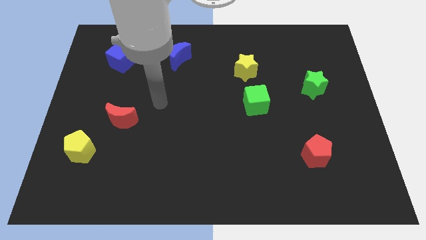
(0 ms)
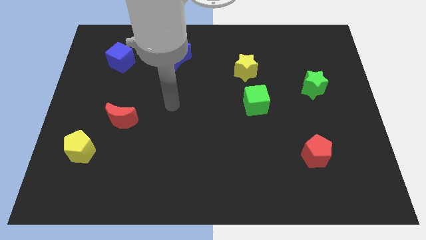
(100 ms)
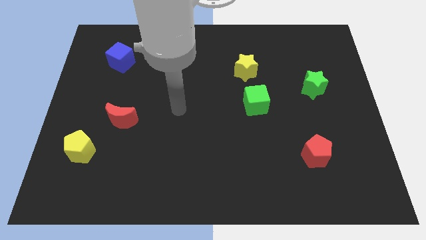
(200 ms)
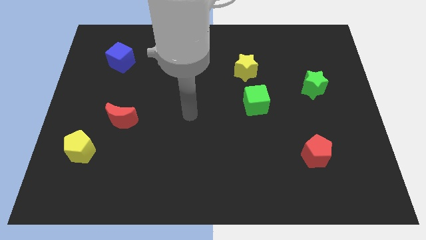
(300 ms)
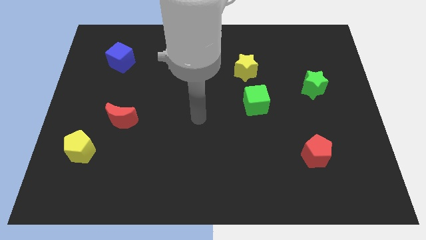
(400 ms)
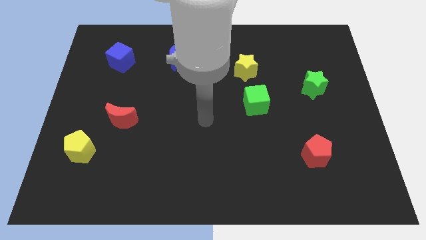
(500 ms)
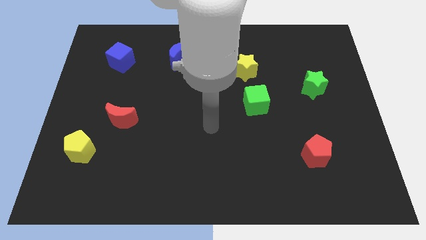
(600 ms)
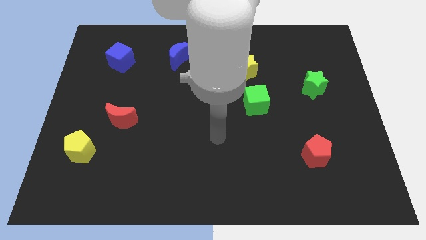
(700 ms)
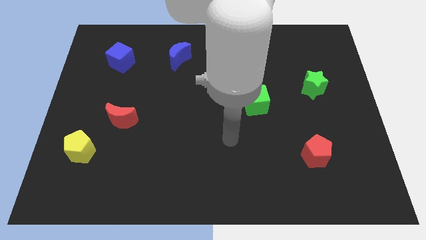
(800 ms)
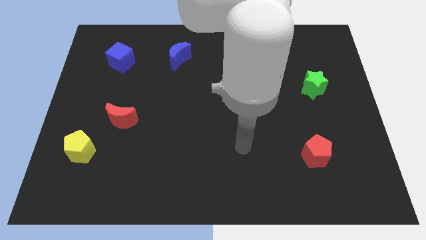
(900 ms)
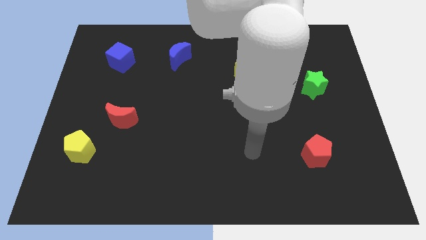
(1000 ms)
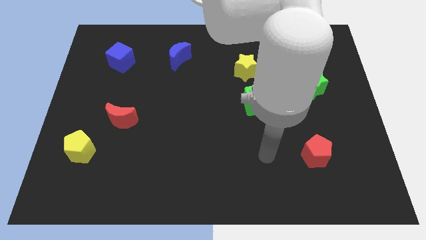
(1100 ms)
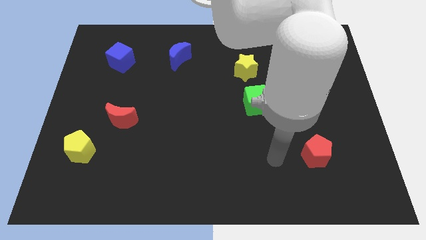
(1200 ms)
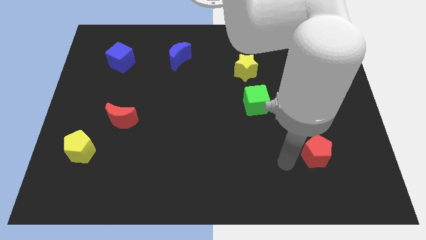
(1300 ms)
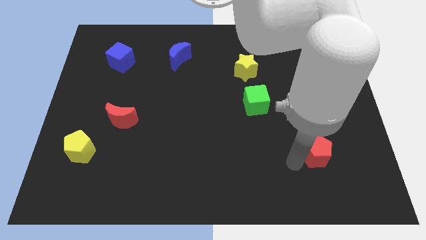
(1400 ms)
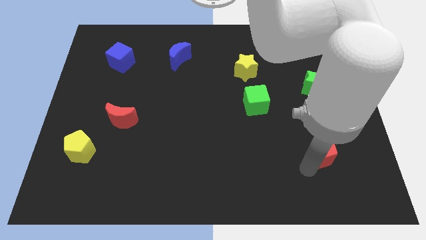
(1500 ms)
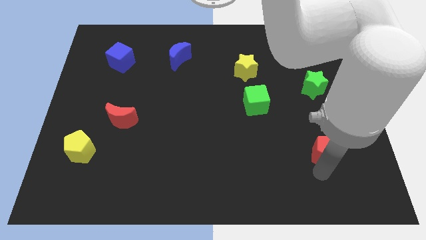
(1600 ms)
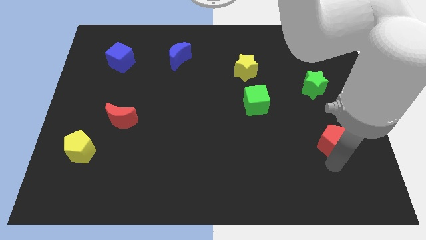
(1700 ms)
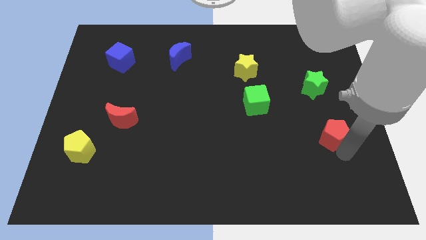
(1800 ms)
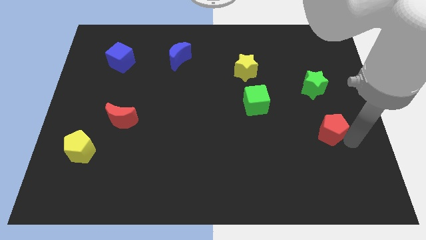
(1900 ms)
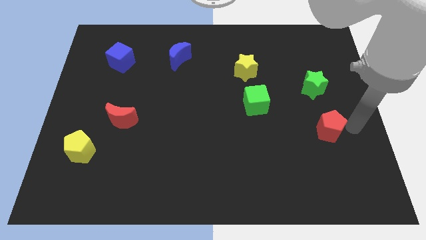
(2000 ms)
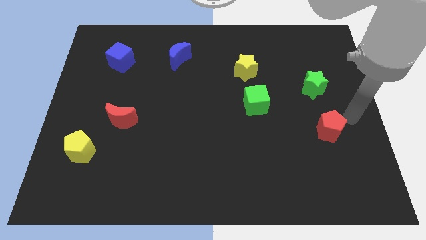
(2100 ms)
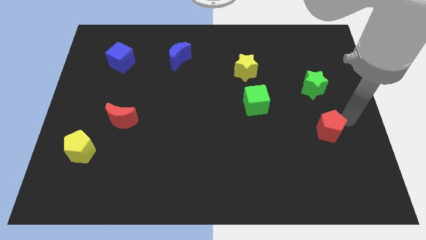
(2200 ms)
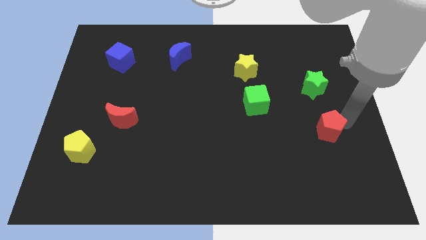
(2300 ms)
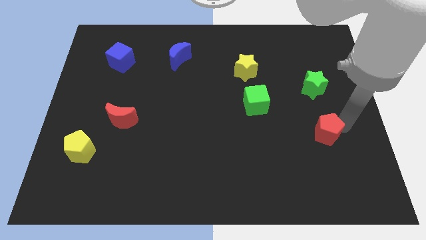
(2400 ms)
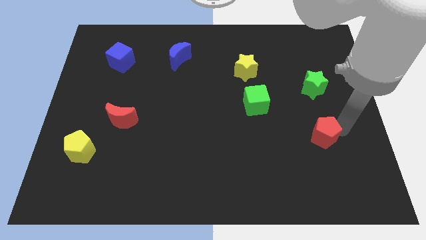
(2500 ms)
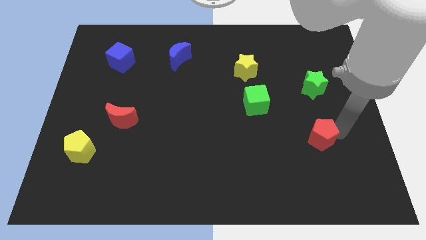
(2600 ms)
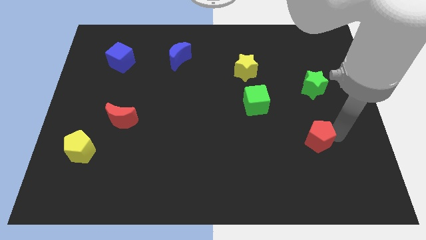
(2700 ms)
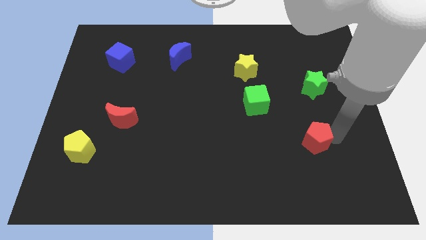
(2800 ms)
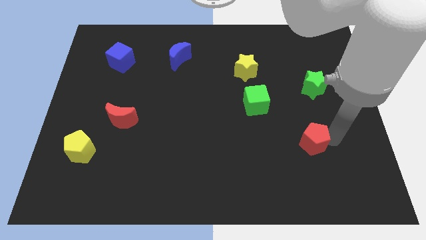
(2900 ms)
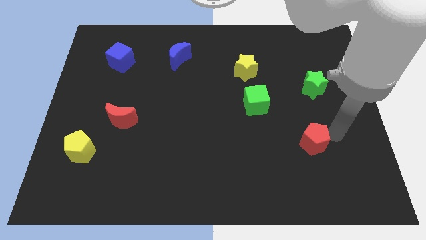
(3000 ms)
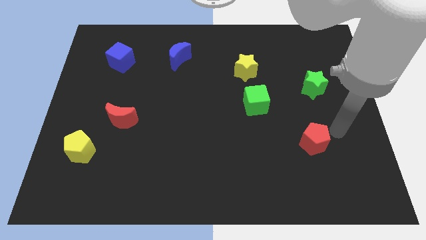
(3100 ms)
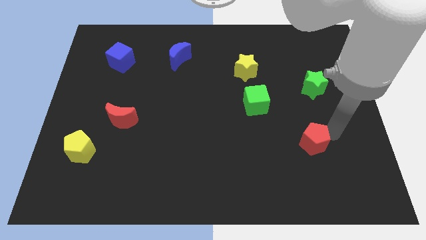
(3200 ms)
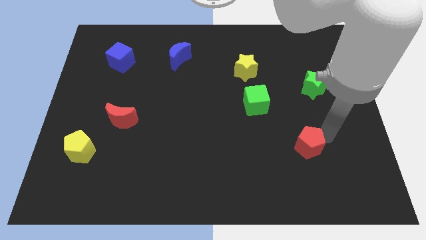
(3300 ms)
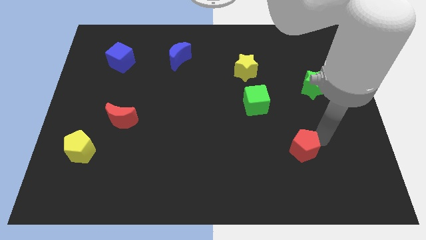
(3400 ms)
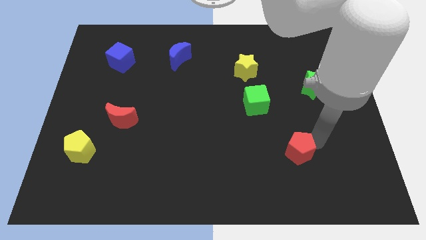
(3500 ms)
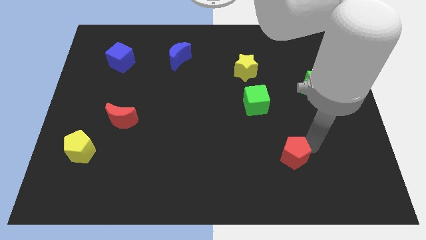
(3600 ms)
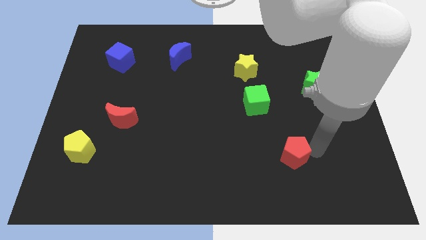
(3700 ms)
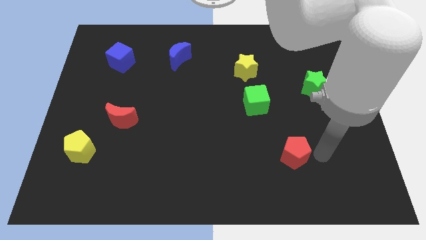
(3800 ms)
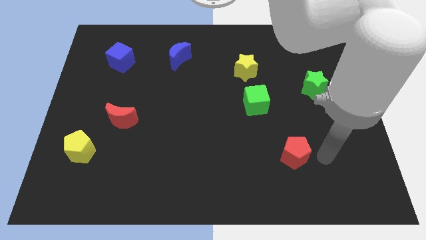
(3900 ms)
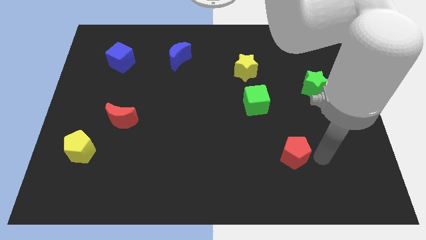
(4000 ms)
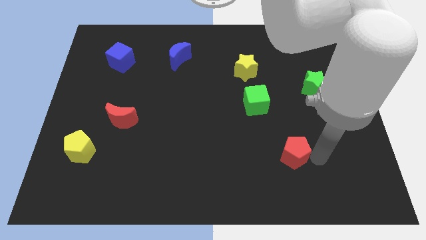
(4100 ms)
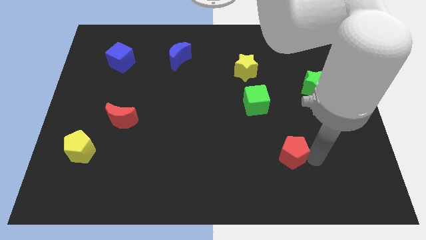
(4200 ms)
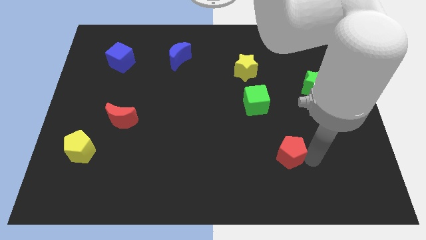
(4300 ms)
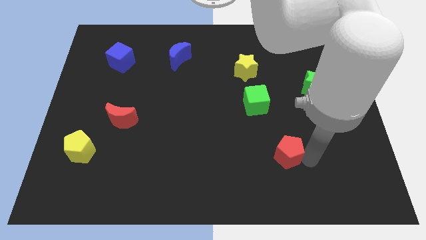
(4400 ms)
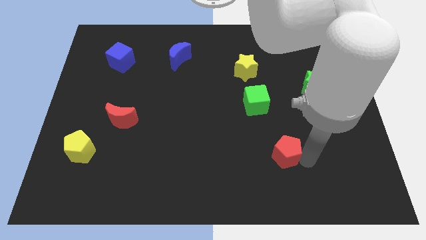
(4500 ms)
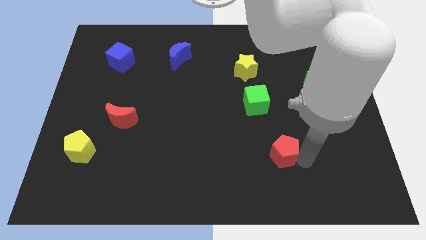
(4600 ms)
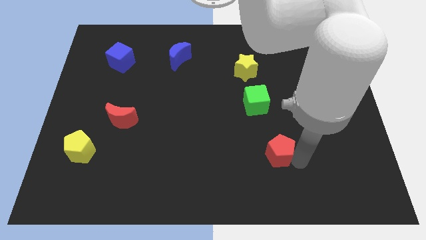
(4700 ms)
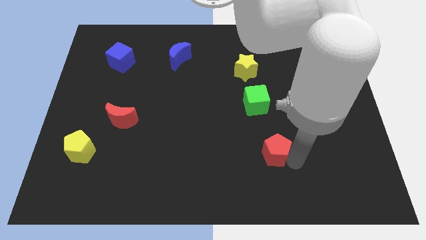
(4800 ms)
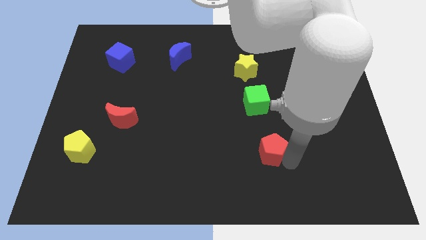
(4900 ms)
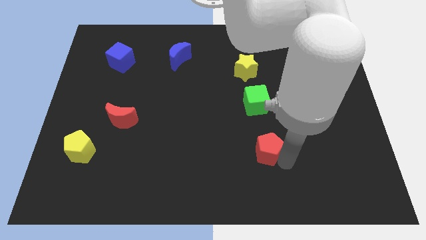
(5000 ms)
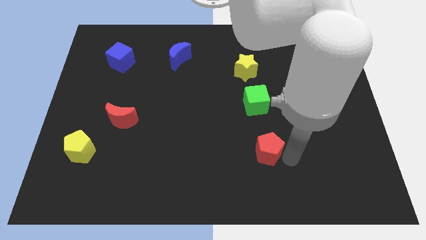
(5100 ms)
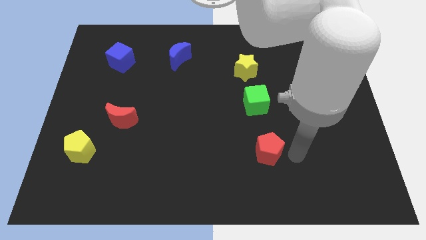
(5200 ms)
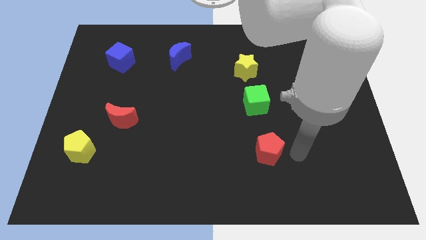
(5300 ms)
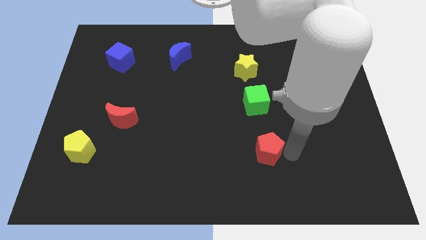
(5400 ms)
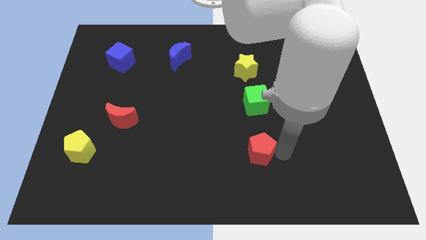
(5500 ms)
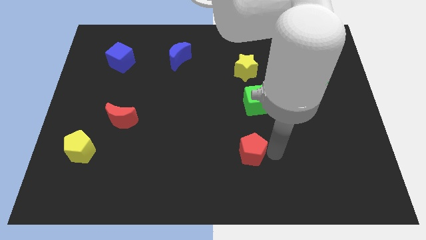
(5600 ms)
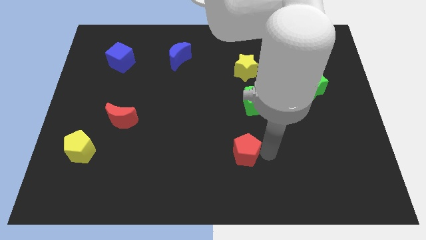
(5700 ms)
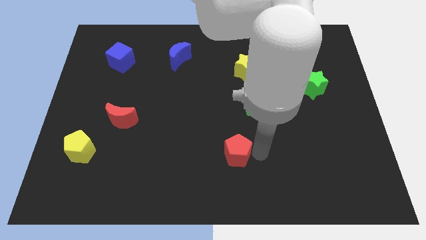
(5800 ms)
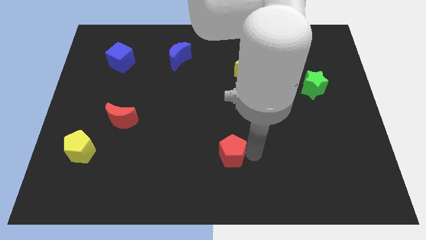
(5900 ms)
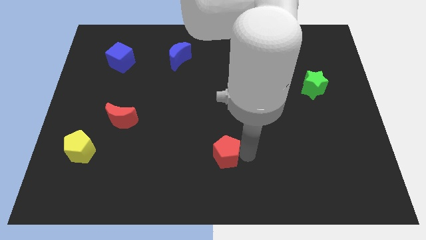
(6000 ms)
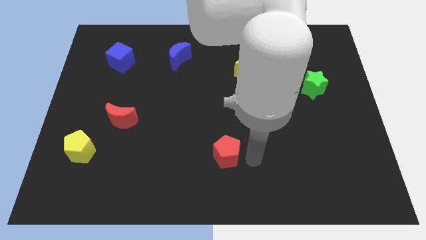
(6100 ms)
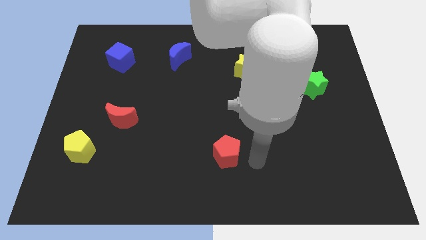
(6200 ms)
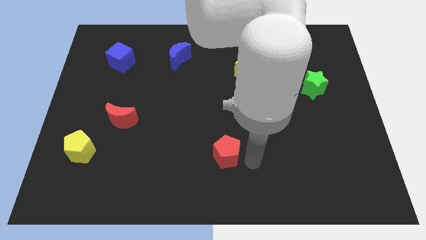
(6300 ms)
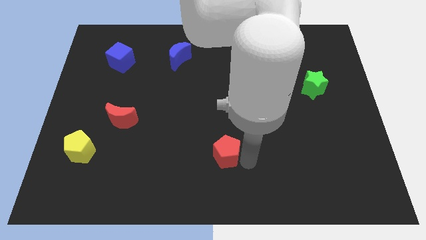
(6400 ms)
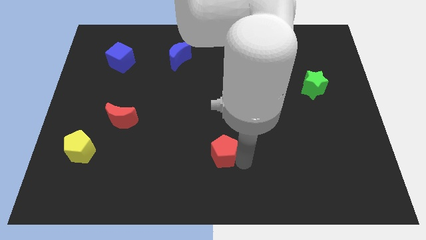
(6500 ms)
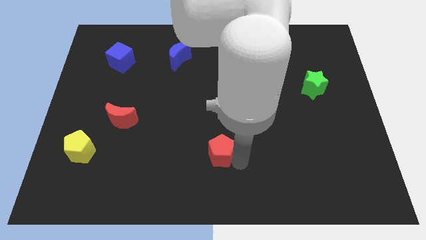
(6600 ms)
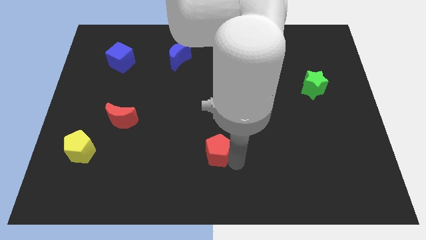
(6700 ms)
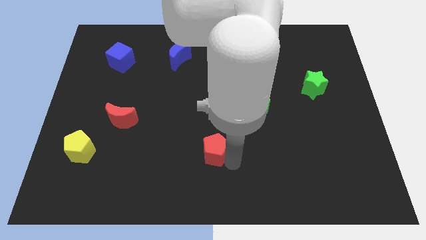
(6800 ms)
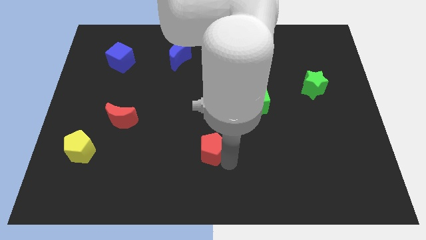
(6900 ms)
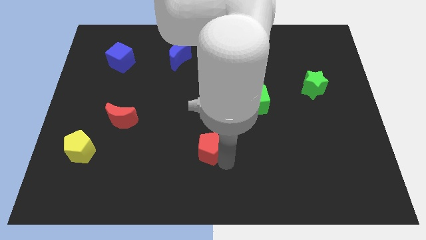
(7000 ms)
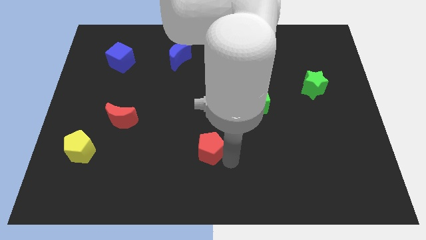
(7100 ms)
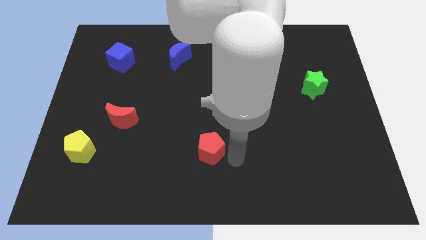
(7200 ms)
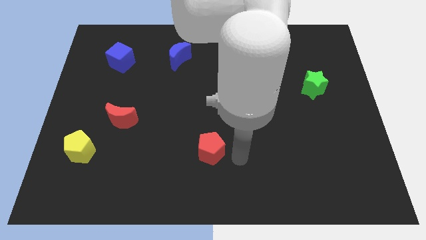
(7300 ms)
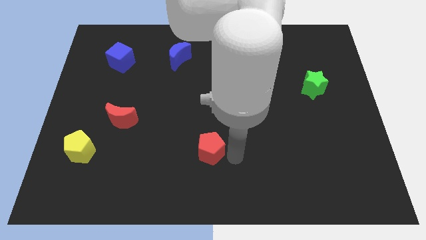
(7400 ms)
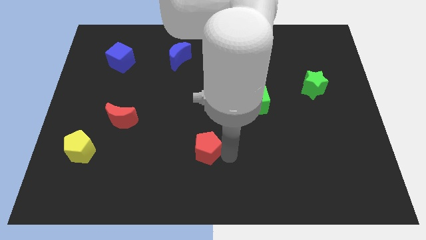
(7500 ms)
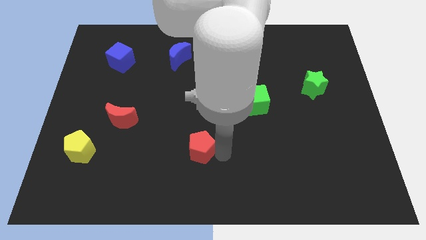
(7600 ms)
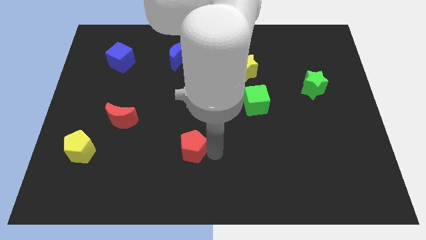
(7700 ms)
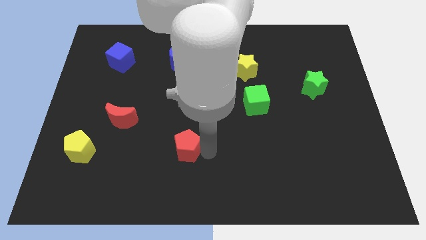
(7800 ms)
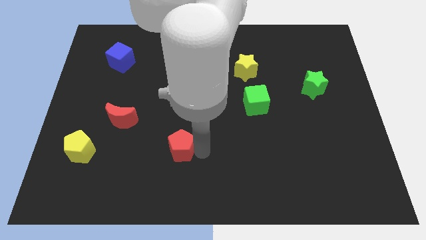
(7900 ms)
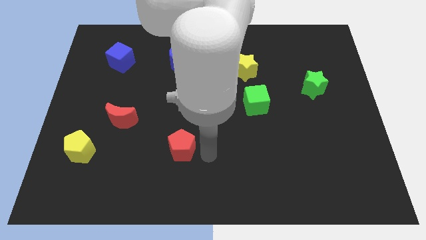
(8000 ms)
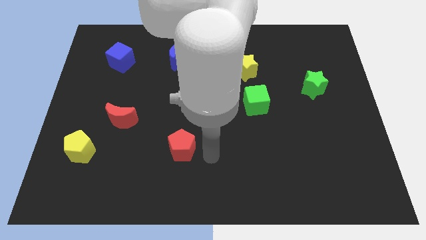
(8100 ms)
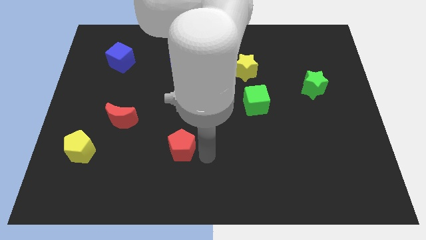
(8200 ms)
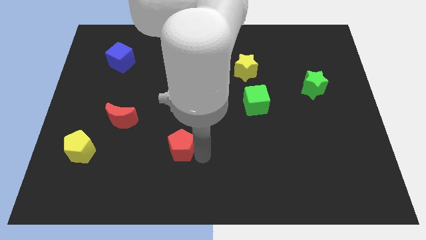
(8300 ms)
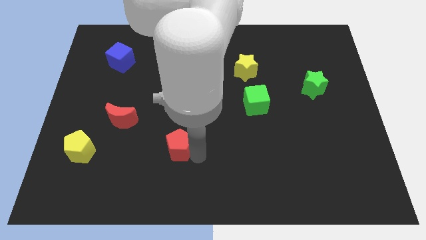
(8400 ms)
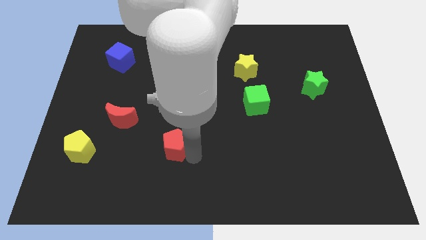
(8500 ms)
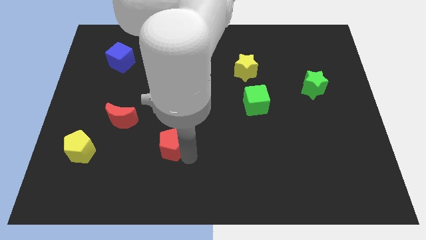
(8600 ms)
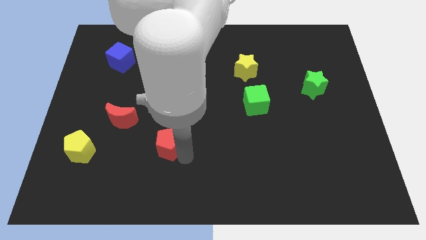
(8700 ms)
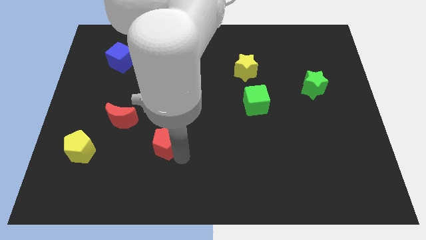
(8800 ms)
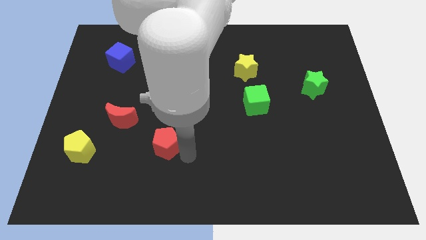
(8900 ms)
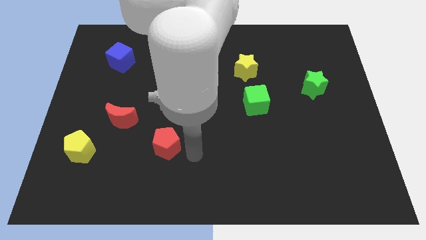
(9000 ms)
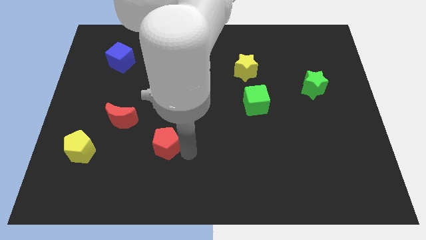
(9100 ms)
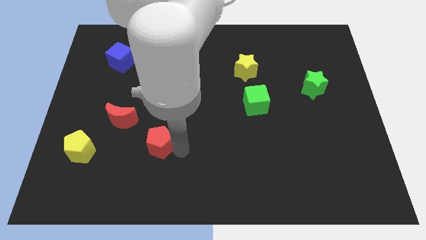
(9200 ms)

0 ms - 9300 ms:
move the red pentagon to the bottom right of the red moon
